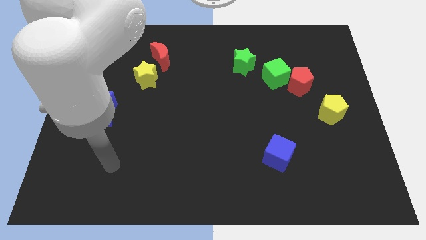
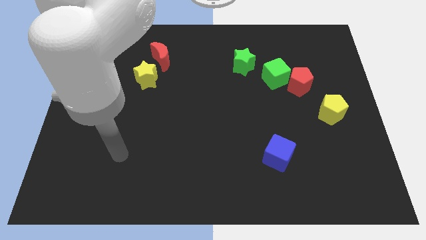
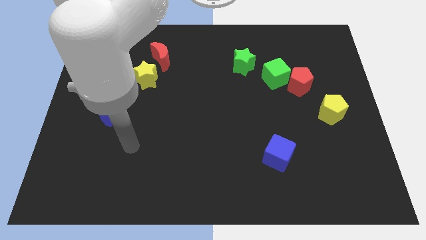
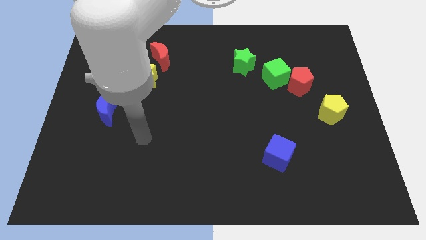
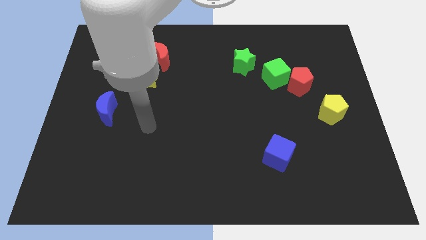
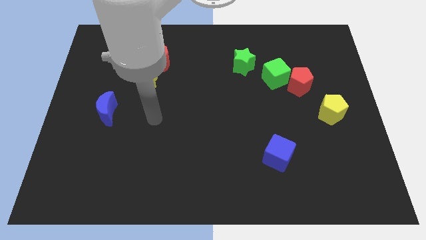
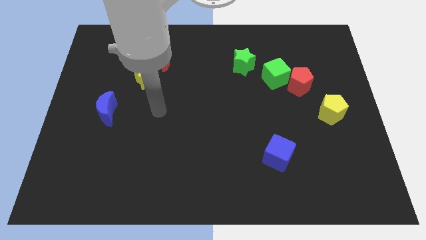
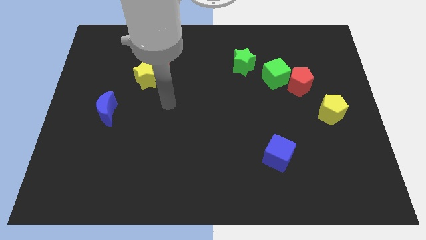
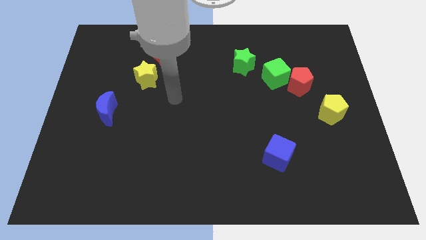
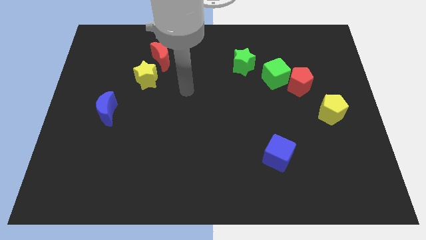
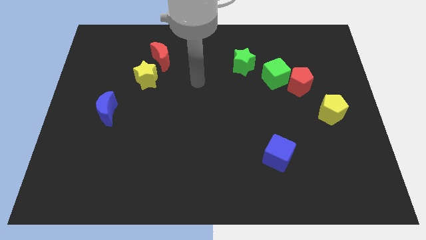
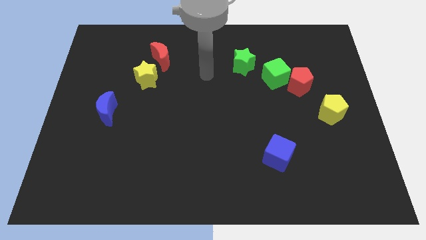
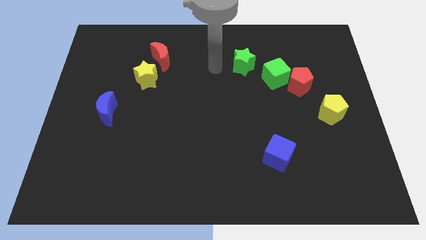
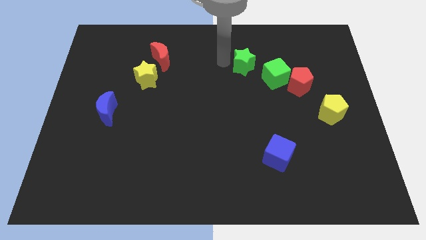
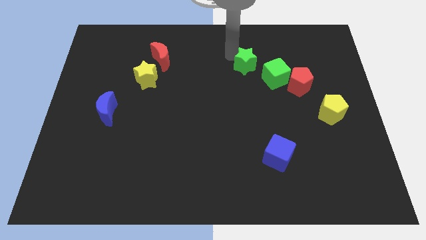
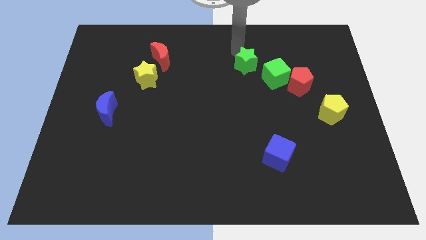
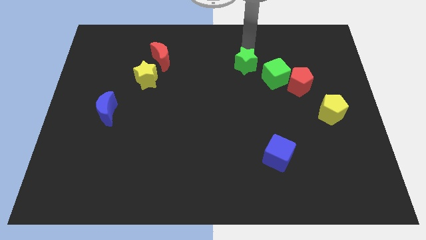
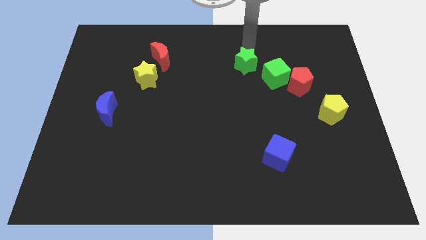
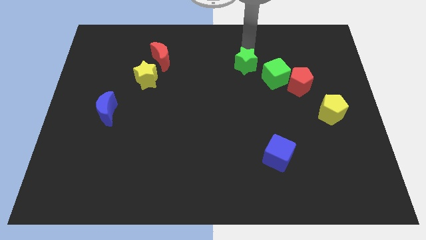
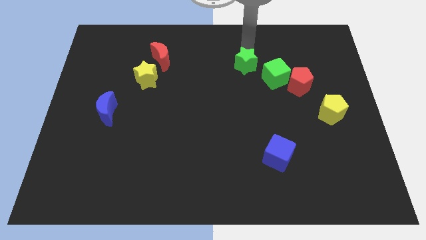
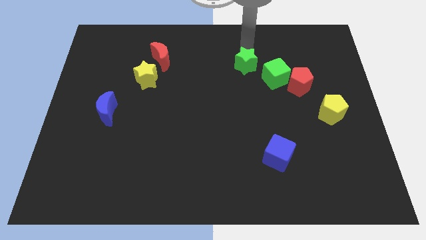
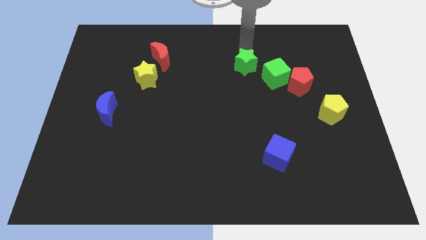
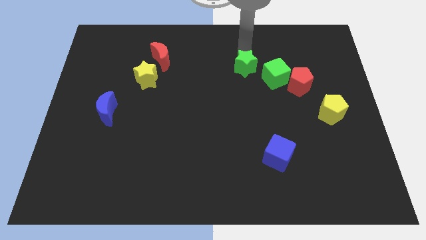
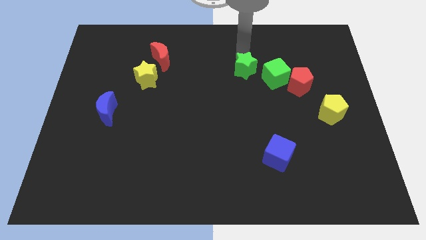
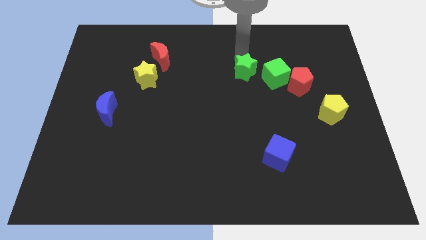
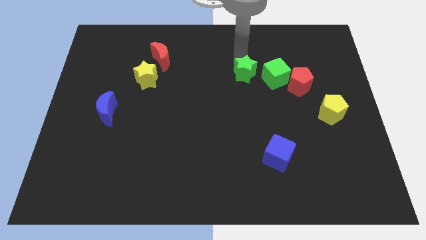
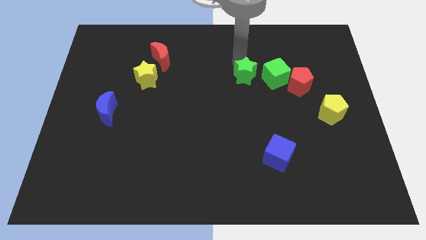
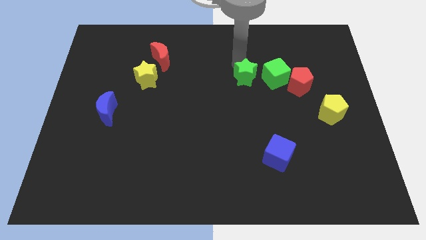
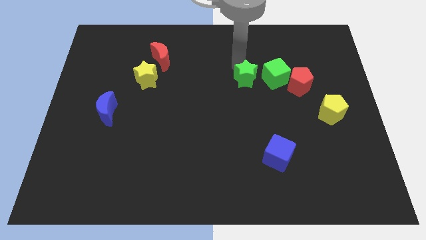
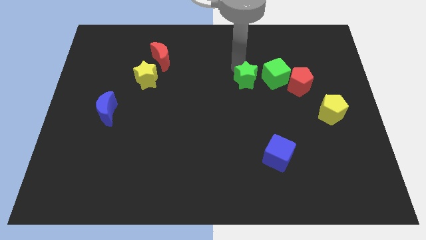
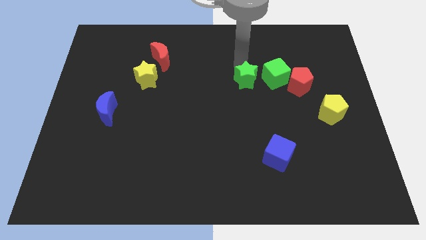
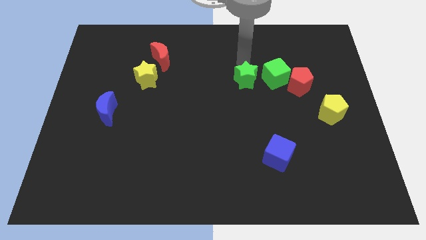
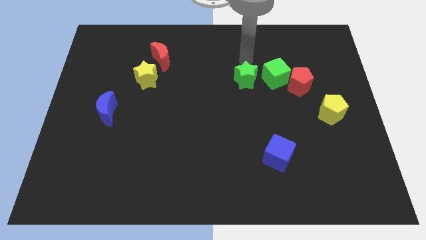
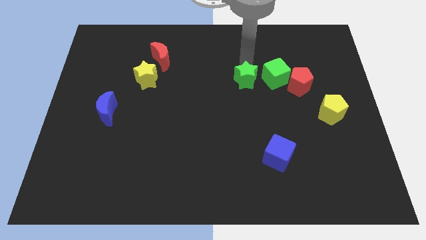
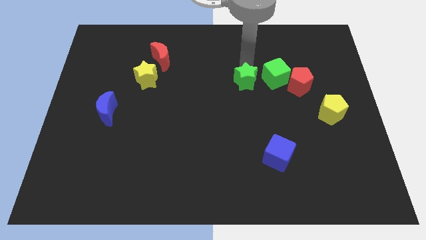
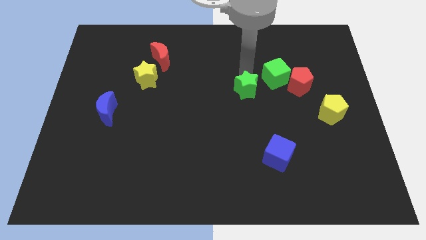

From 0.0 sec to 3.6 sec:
slightly slide the green star down

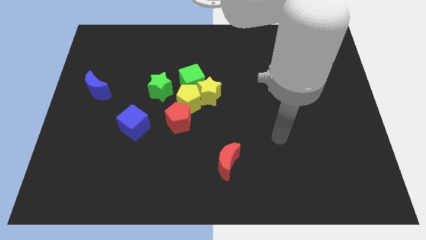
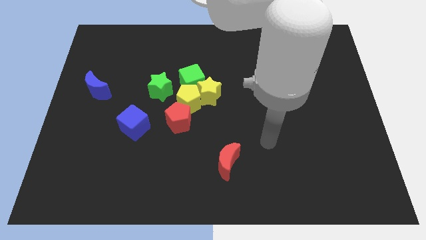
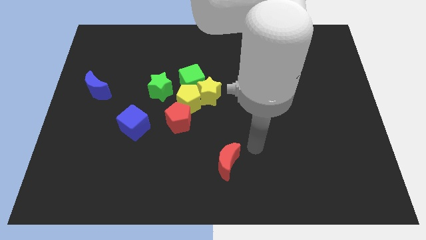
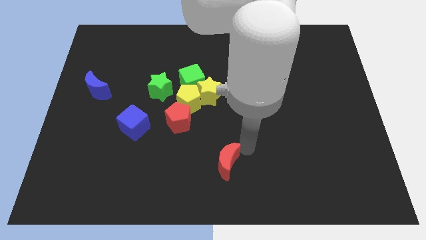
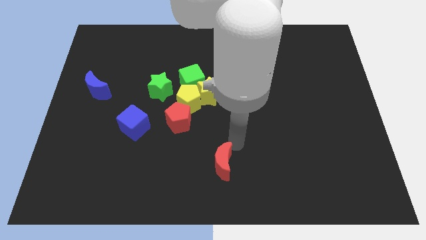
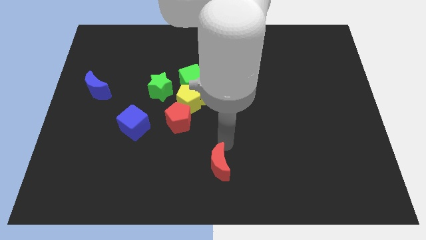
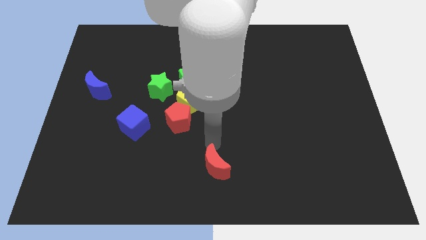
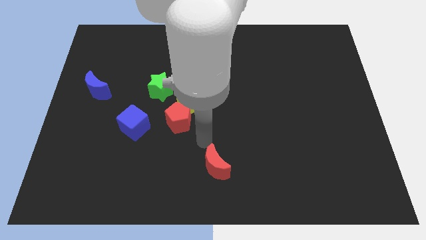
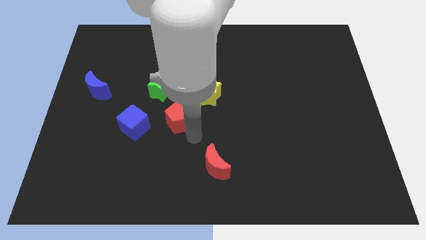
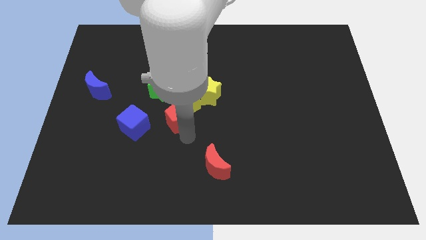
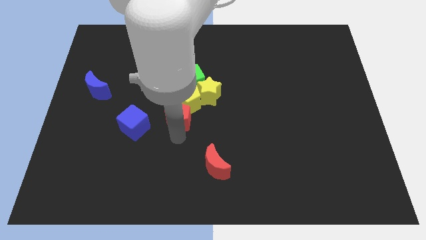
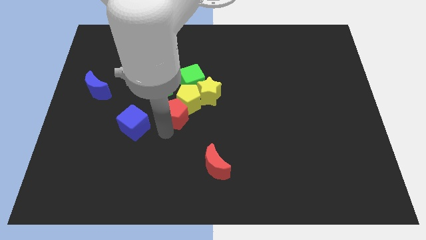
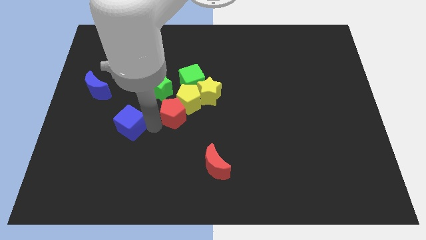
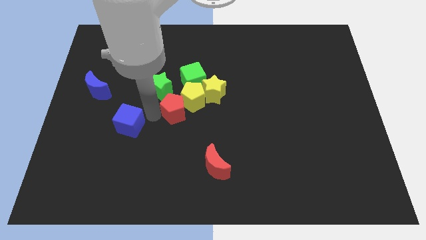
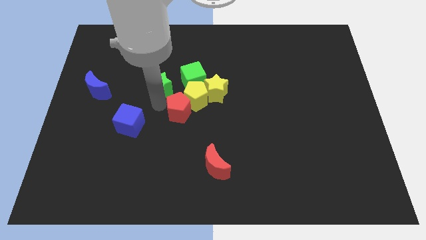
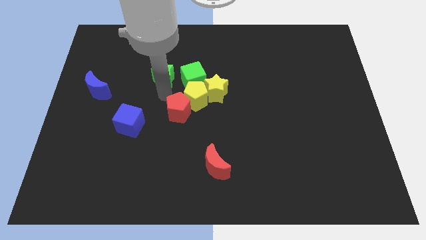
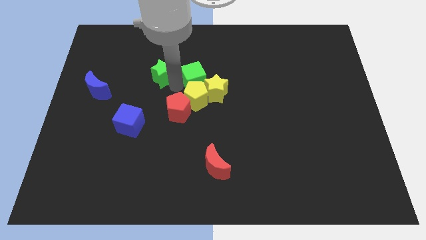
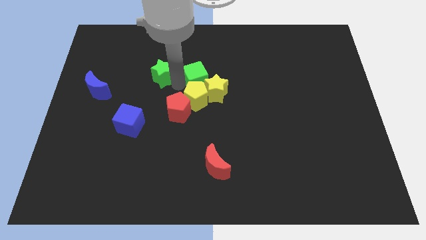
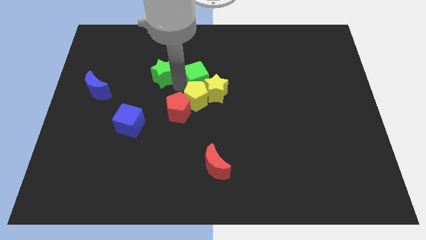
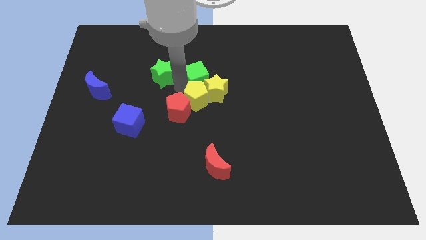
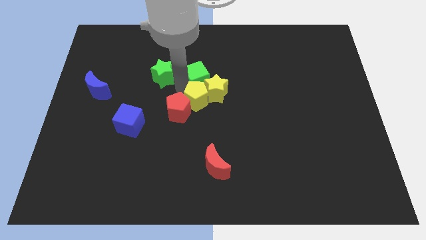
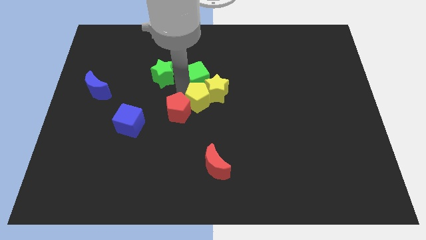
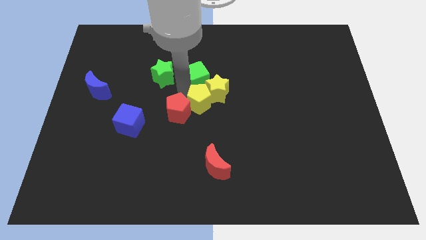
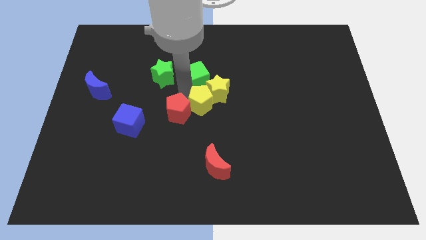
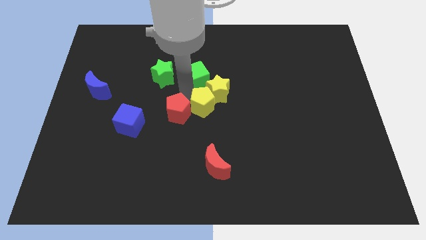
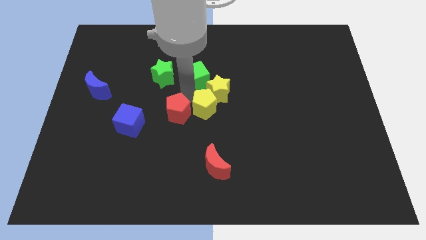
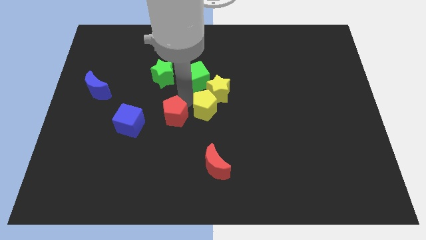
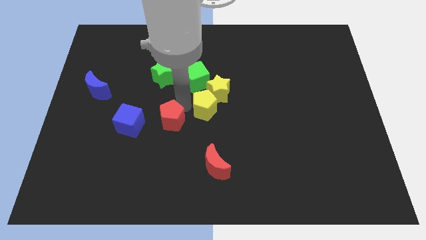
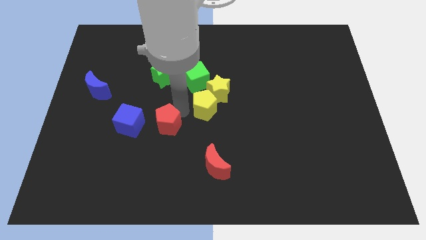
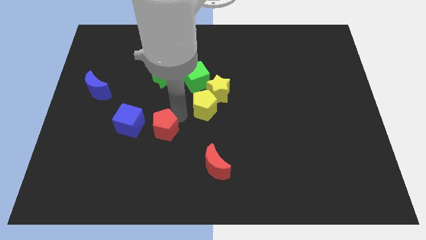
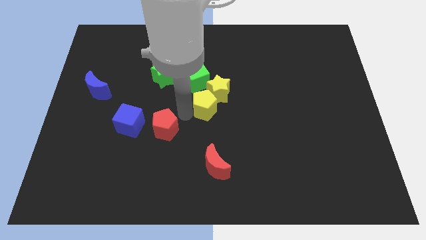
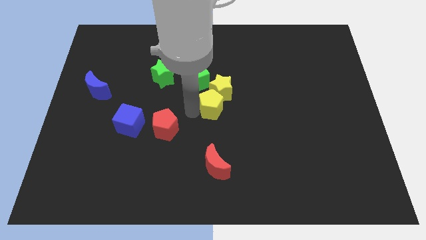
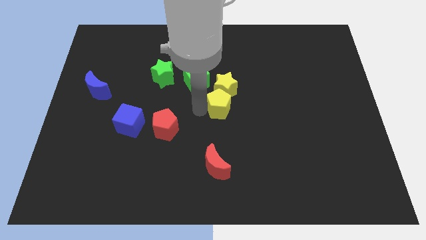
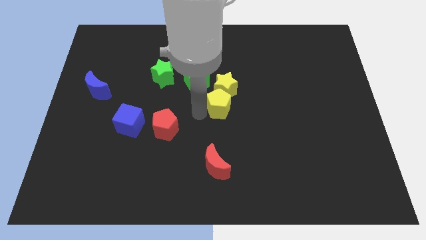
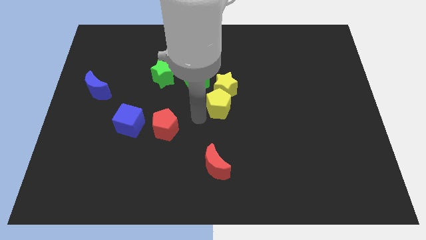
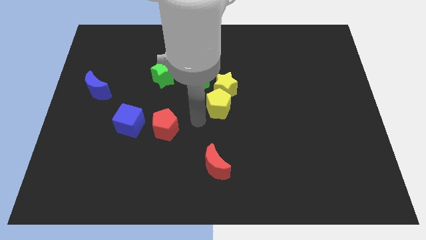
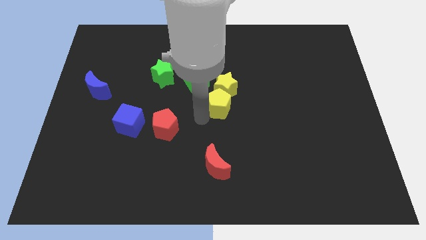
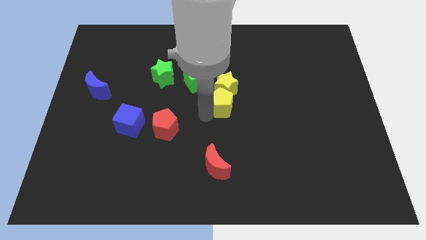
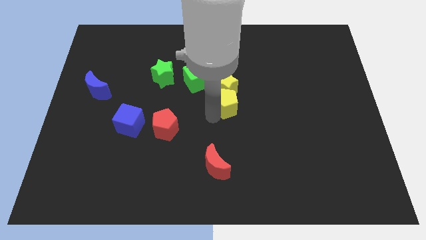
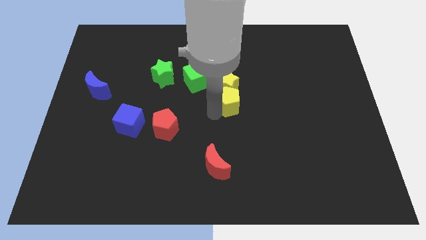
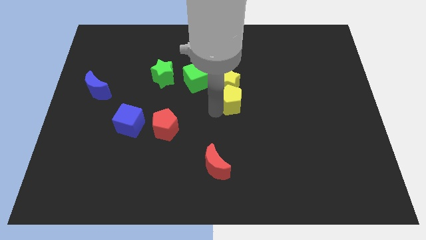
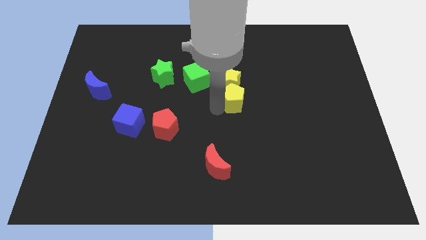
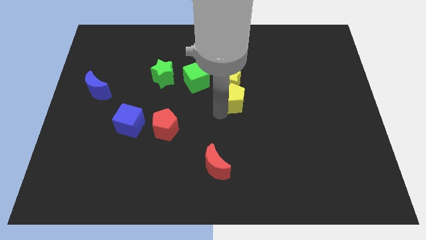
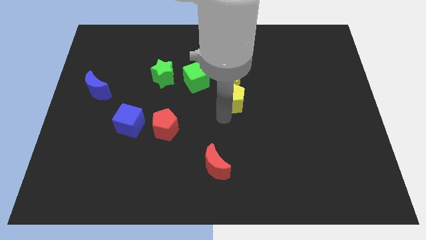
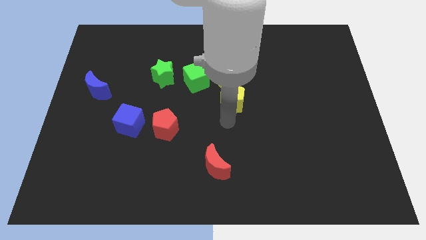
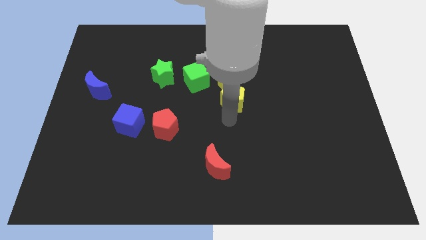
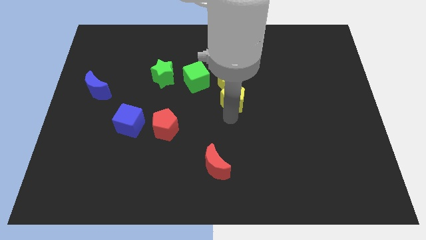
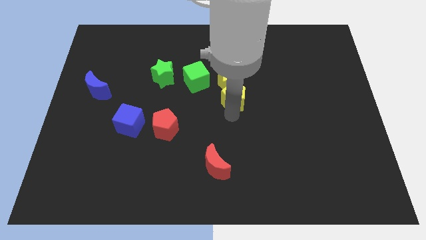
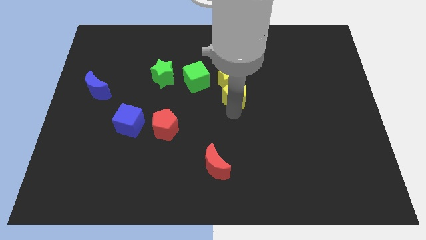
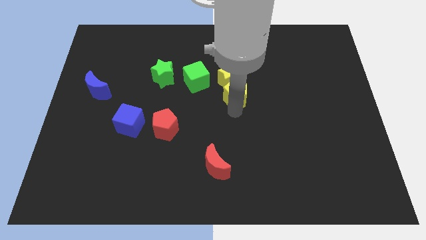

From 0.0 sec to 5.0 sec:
push the yellow pentagon upwards and right a little

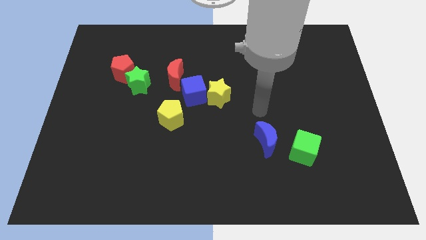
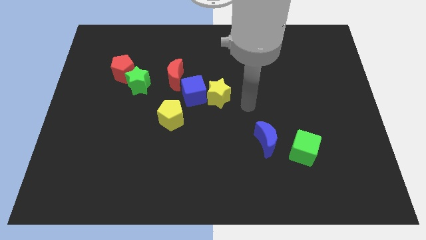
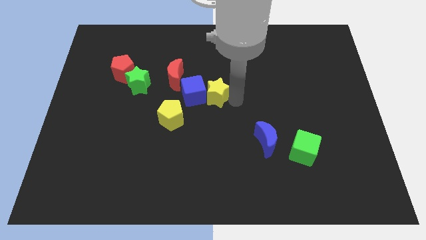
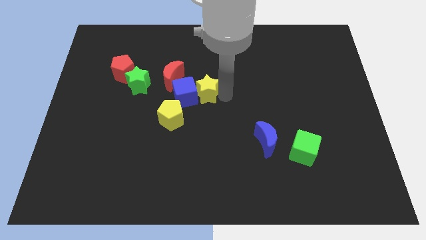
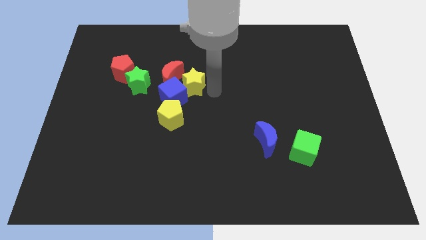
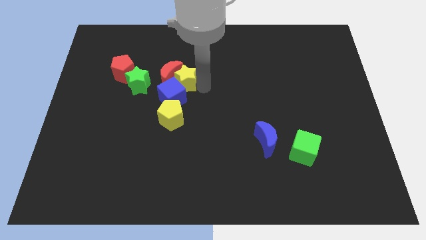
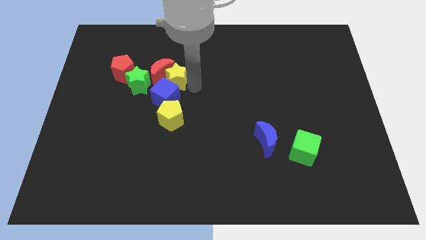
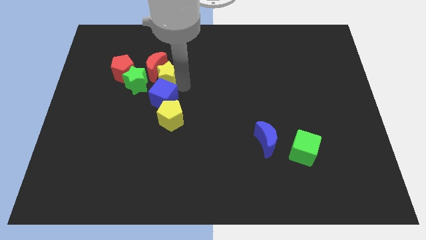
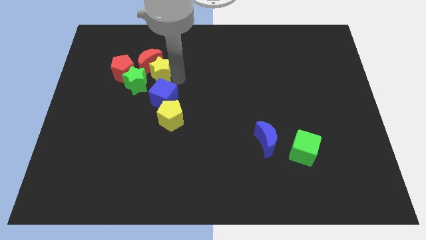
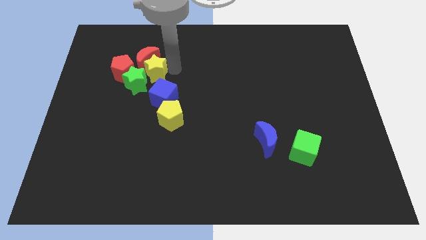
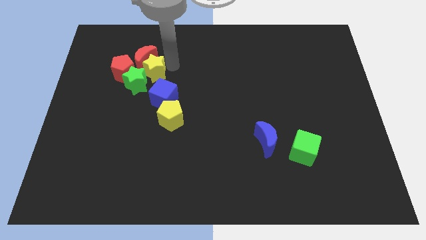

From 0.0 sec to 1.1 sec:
slightly slide the red moon left
